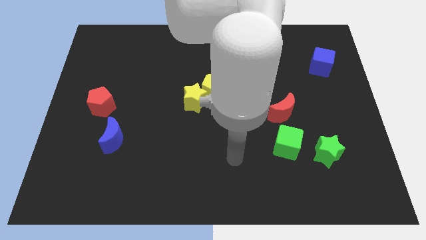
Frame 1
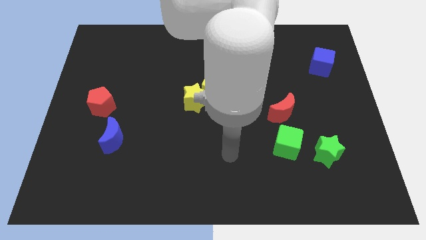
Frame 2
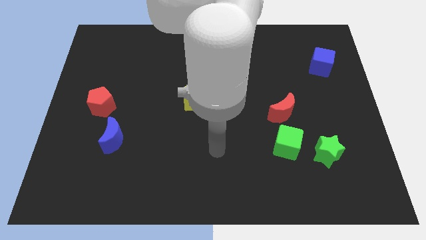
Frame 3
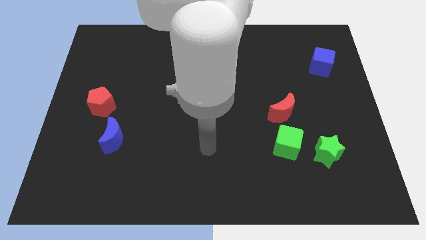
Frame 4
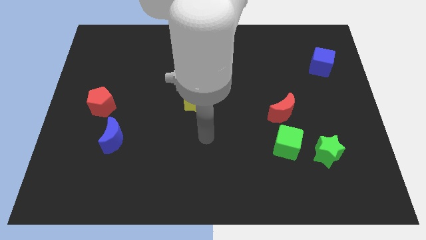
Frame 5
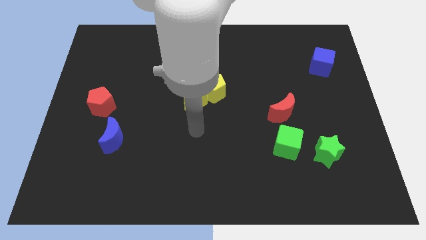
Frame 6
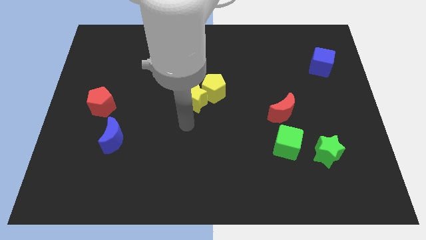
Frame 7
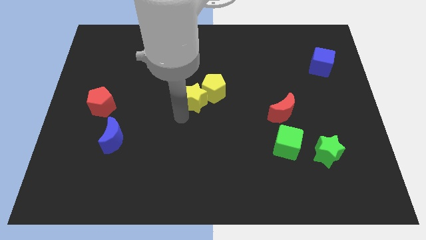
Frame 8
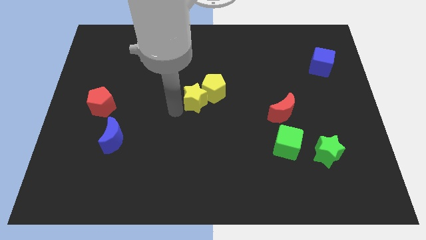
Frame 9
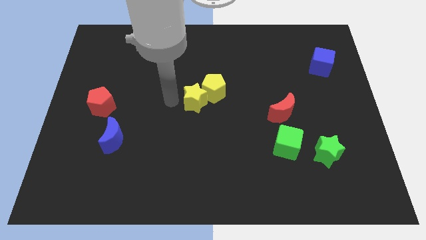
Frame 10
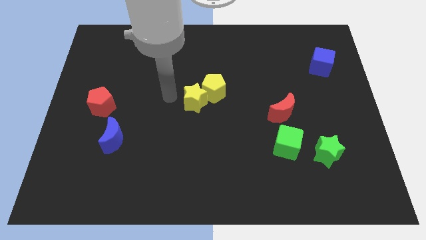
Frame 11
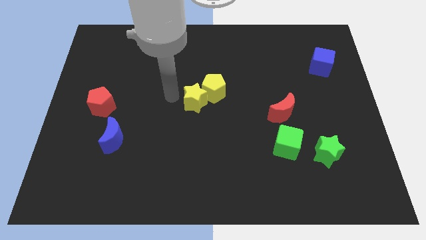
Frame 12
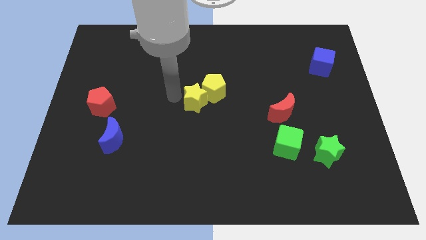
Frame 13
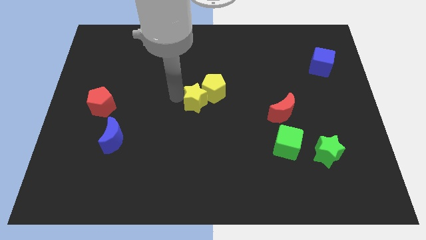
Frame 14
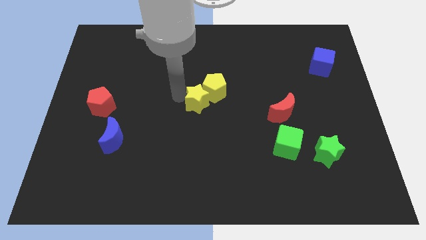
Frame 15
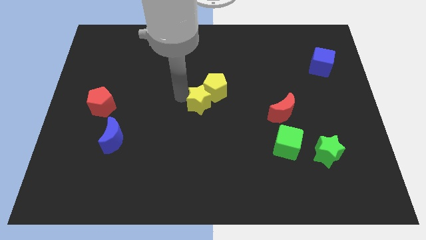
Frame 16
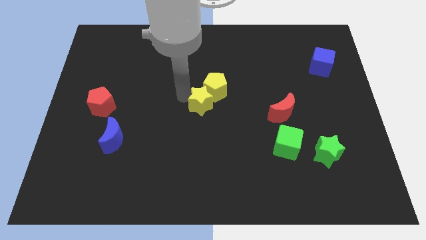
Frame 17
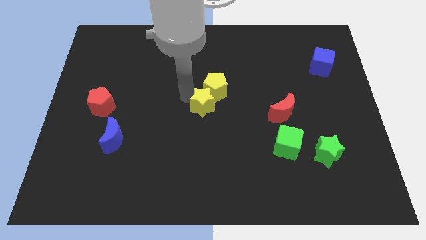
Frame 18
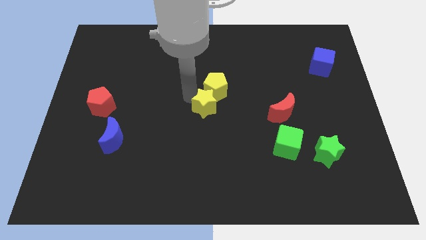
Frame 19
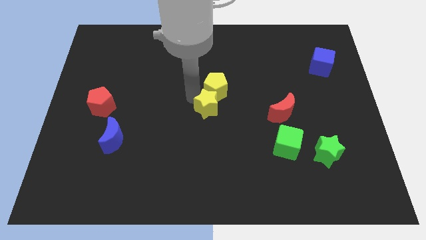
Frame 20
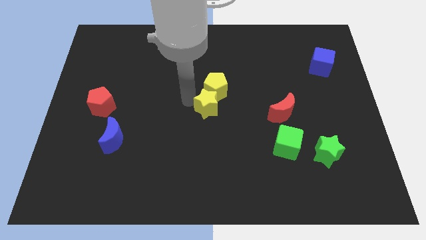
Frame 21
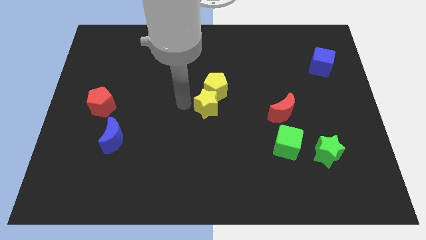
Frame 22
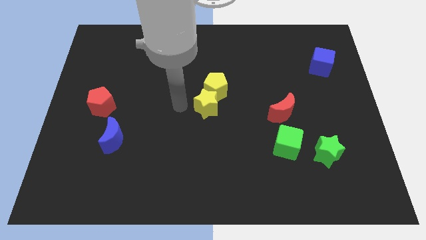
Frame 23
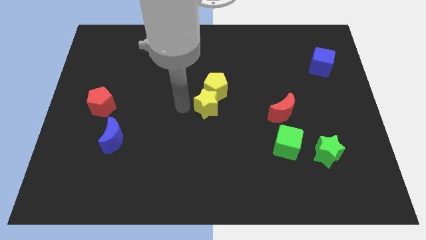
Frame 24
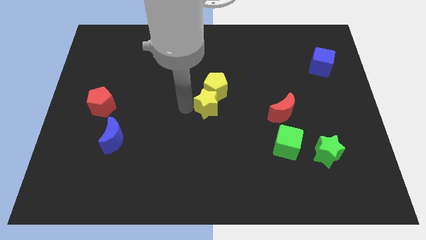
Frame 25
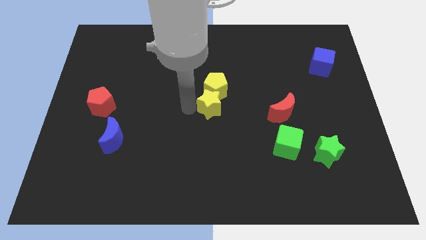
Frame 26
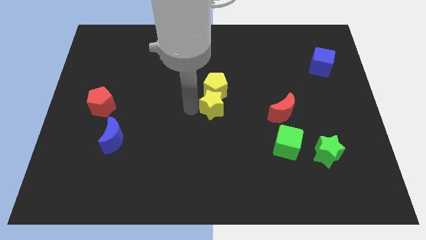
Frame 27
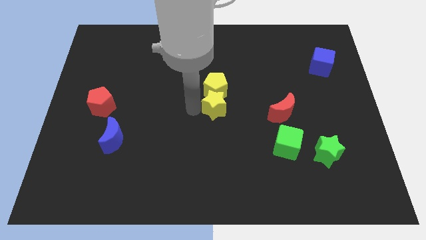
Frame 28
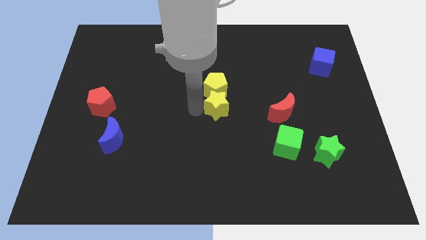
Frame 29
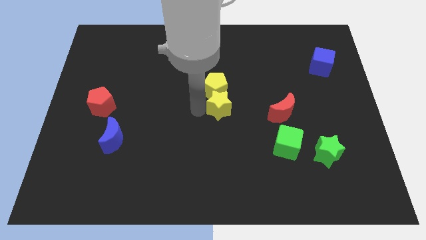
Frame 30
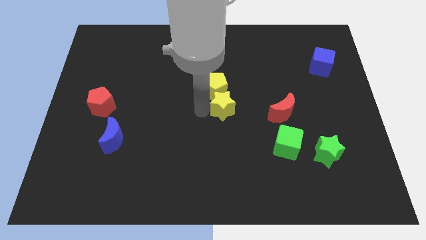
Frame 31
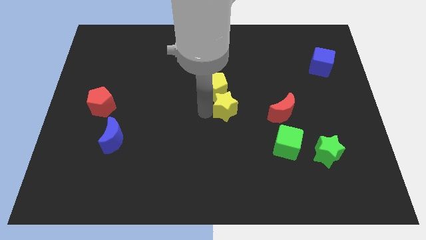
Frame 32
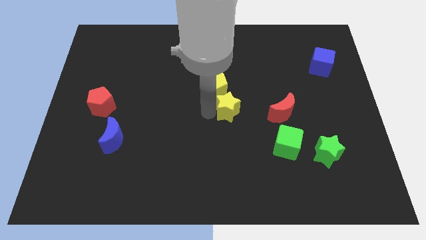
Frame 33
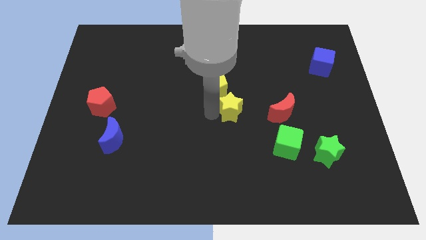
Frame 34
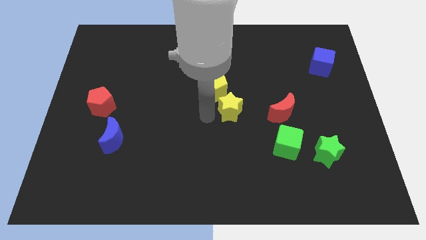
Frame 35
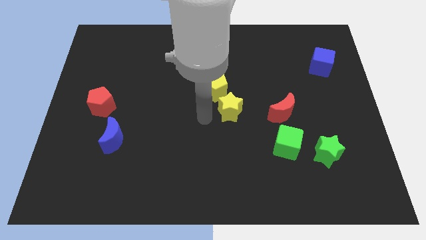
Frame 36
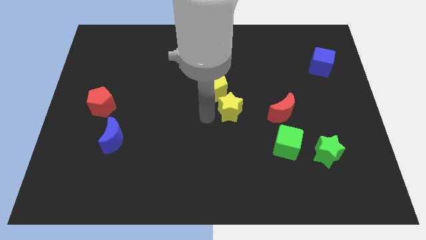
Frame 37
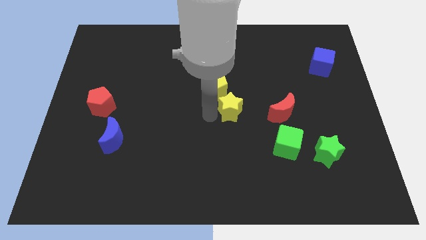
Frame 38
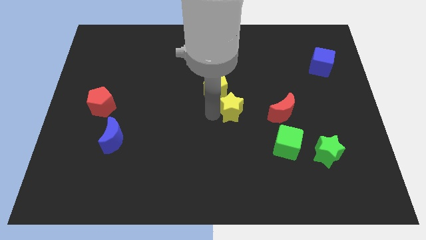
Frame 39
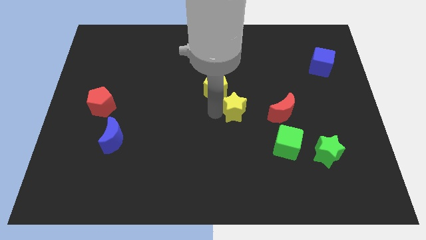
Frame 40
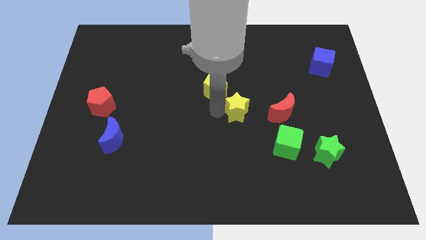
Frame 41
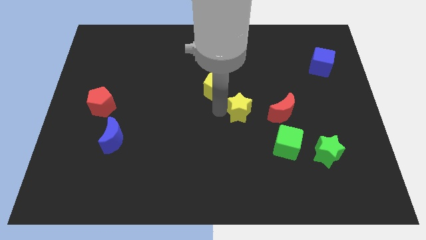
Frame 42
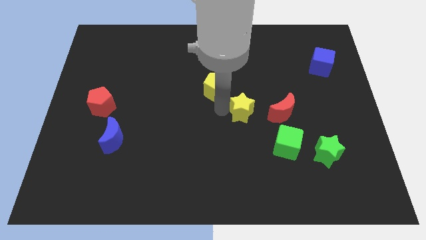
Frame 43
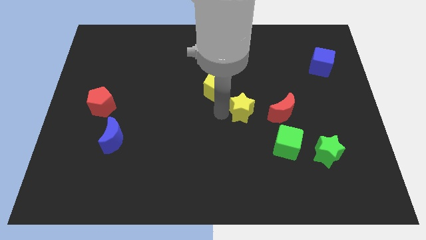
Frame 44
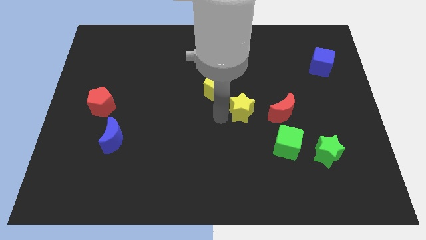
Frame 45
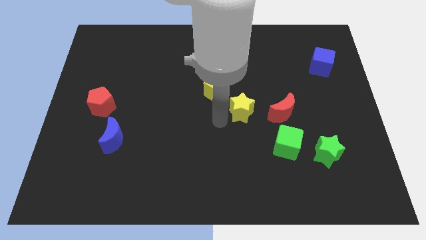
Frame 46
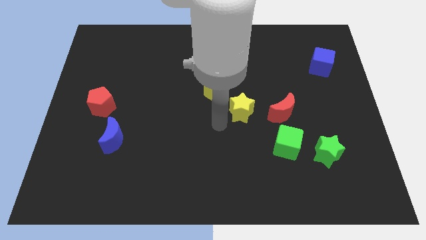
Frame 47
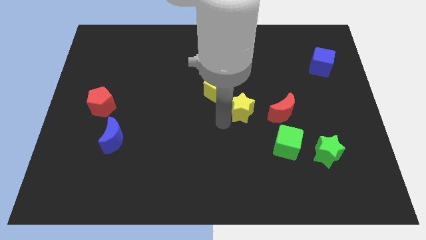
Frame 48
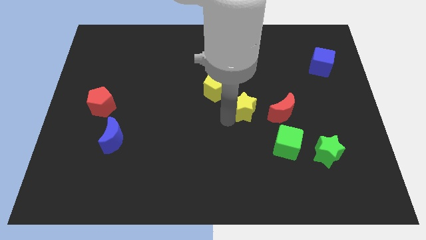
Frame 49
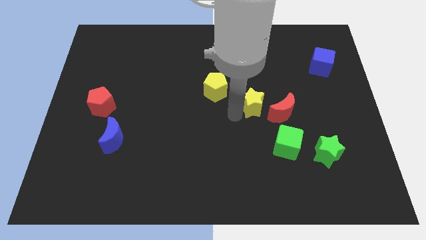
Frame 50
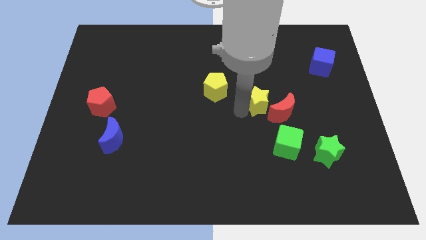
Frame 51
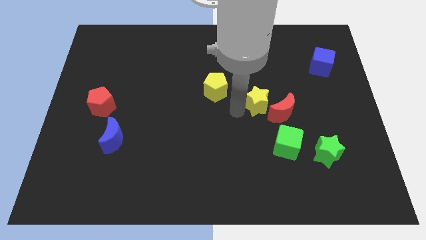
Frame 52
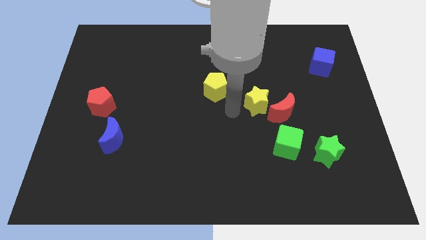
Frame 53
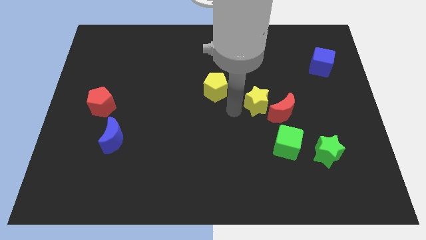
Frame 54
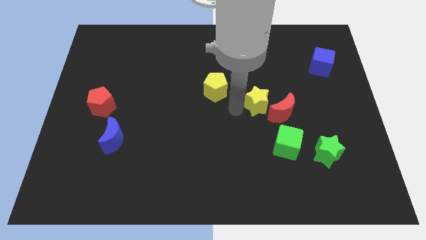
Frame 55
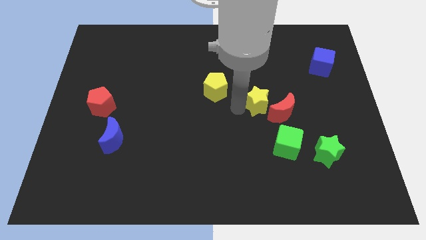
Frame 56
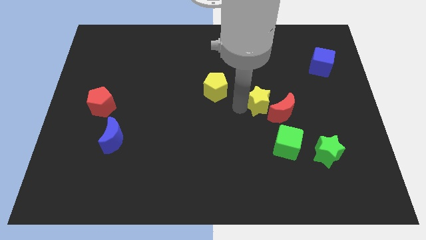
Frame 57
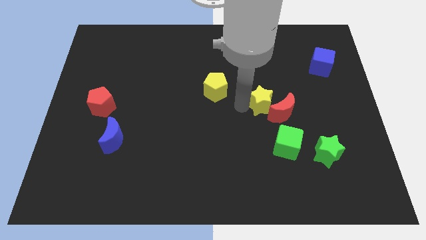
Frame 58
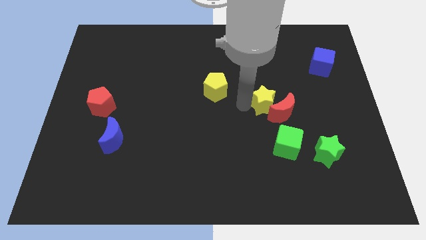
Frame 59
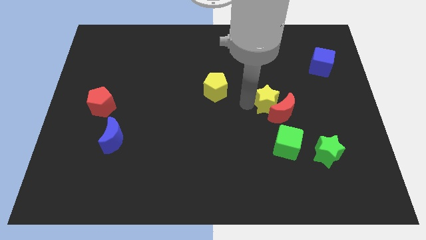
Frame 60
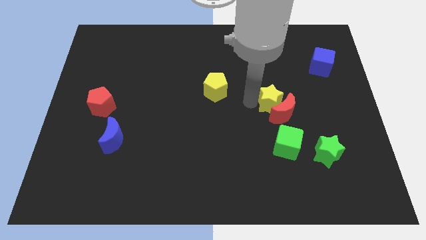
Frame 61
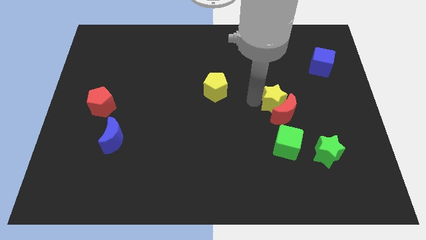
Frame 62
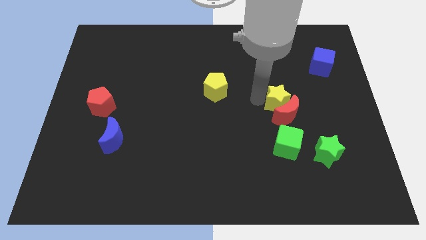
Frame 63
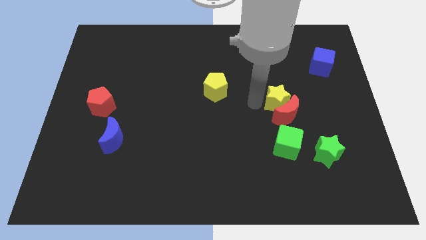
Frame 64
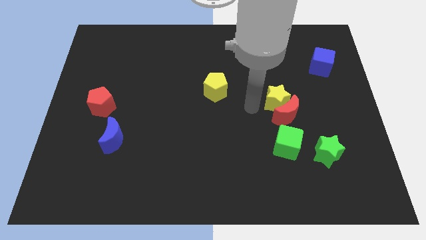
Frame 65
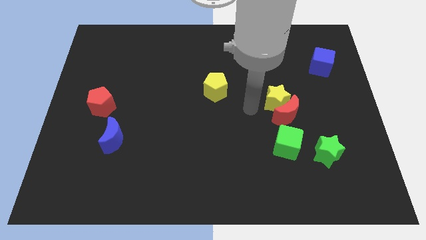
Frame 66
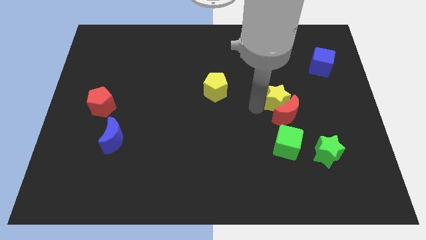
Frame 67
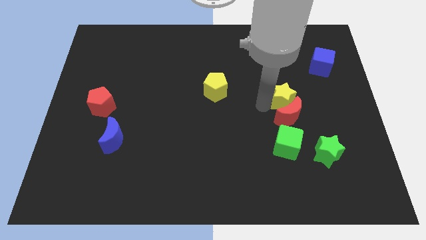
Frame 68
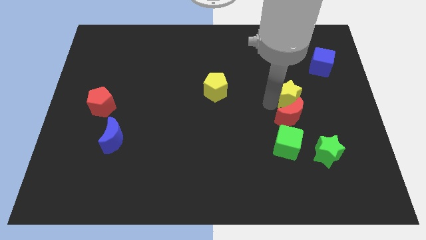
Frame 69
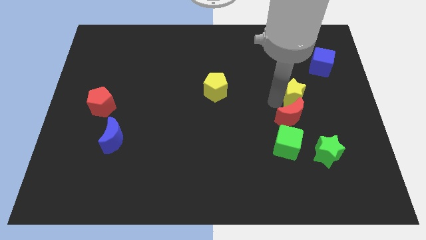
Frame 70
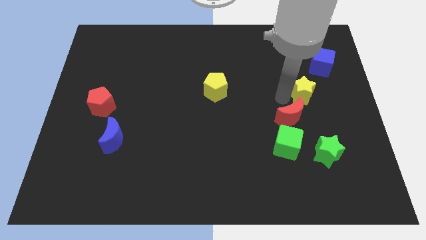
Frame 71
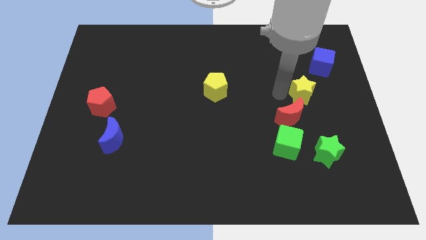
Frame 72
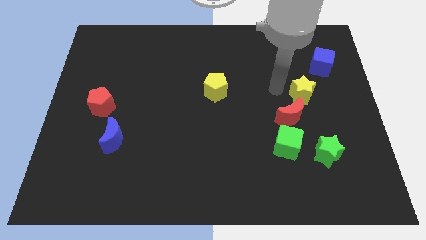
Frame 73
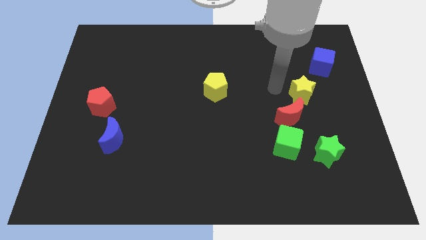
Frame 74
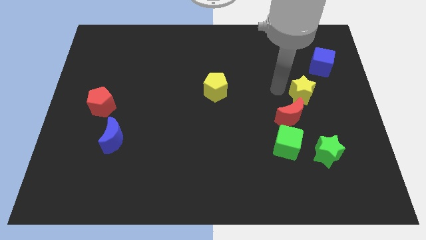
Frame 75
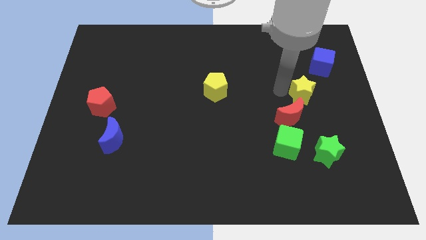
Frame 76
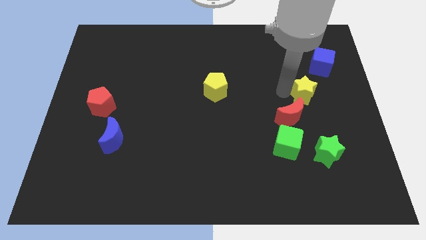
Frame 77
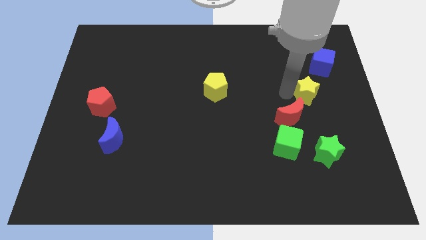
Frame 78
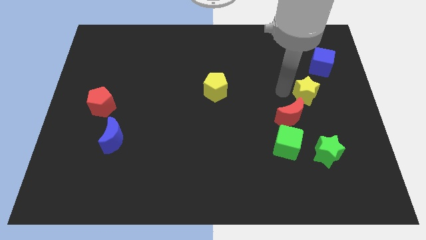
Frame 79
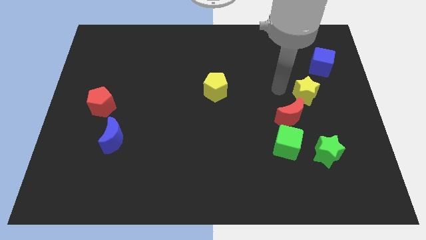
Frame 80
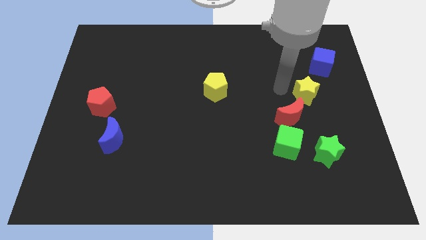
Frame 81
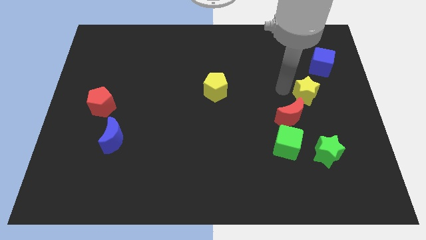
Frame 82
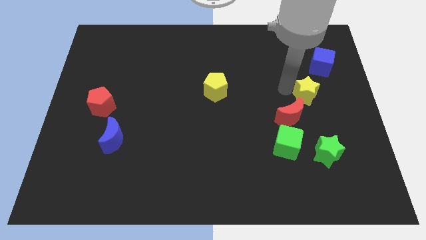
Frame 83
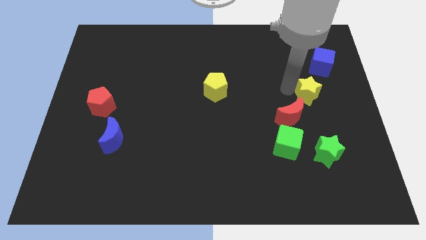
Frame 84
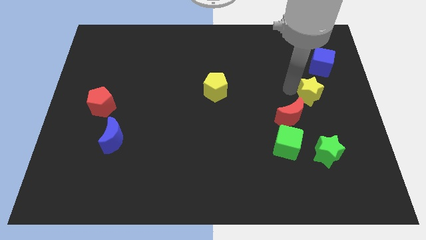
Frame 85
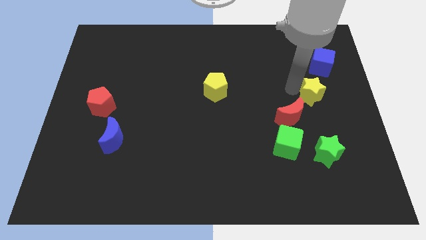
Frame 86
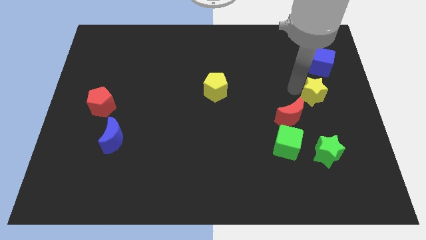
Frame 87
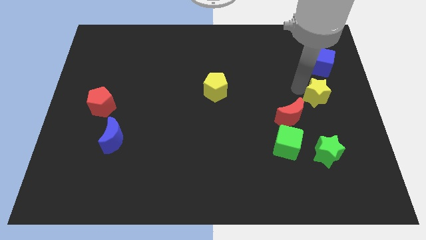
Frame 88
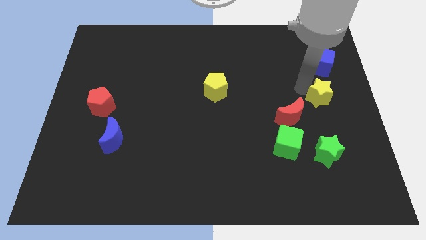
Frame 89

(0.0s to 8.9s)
move the yellow star to the center right
